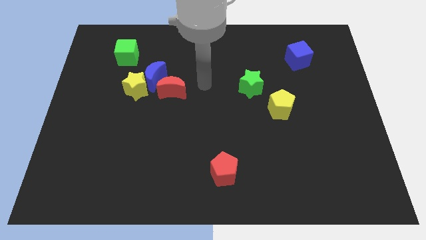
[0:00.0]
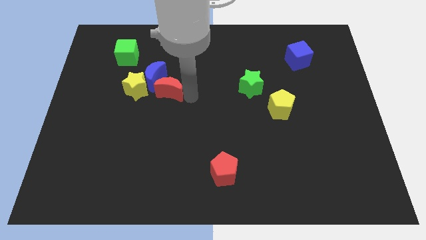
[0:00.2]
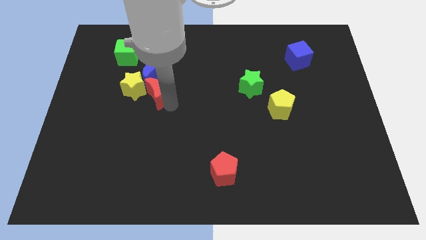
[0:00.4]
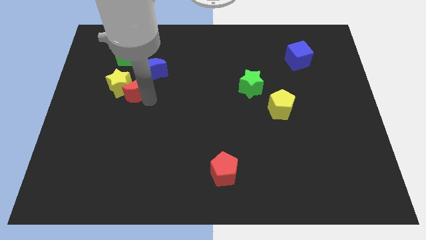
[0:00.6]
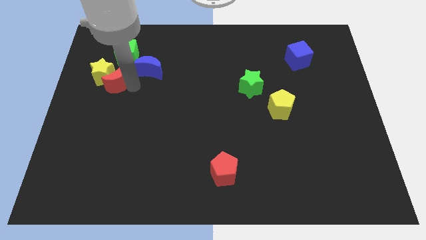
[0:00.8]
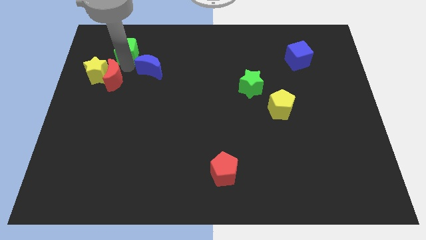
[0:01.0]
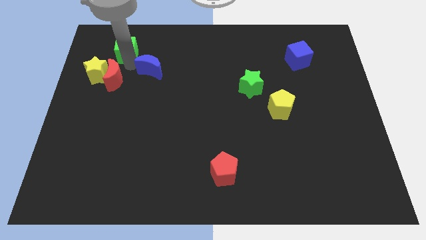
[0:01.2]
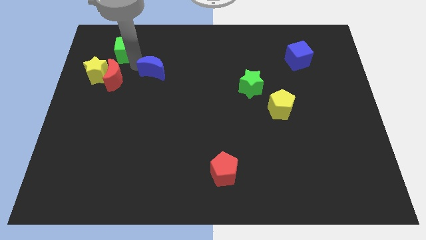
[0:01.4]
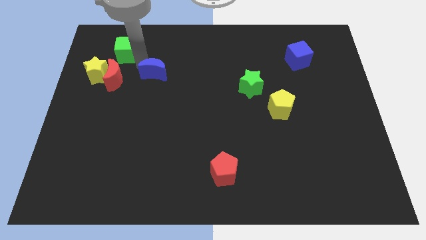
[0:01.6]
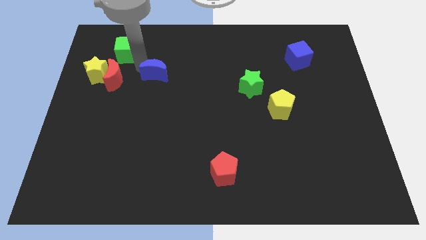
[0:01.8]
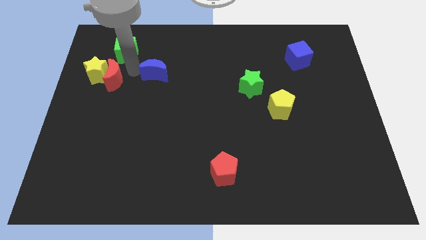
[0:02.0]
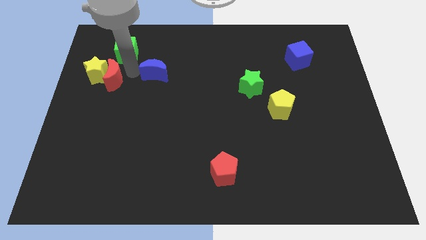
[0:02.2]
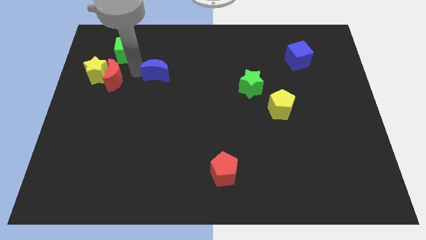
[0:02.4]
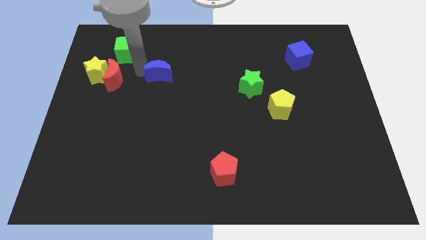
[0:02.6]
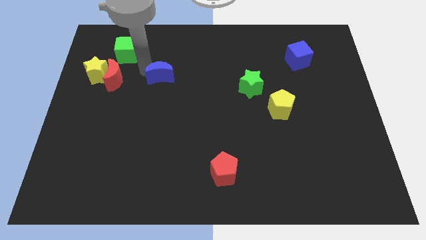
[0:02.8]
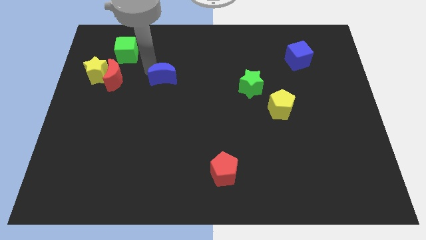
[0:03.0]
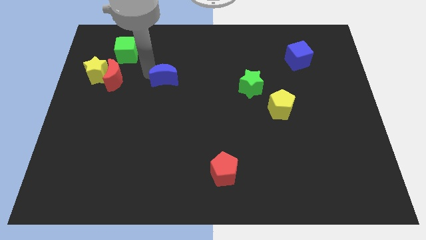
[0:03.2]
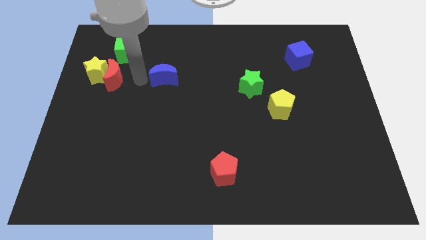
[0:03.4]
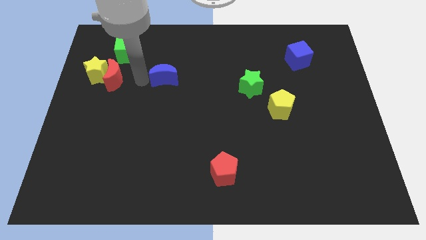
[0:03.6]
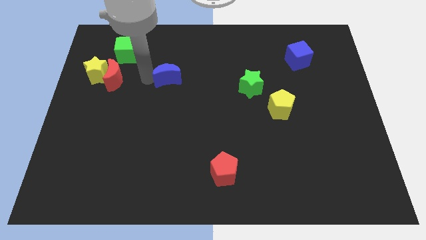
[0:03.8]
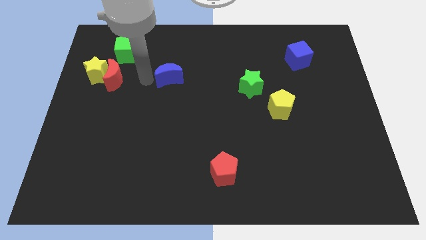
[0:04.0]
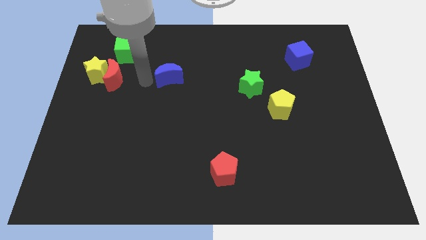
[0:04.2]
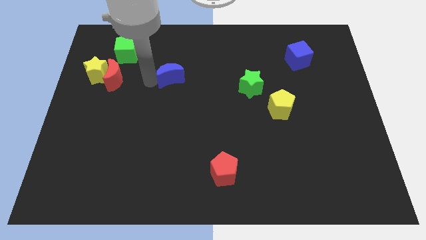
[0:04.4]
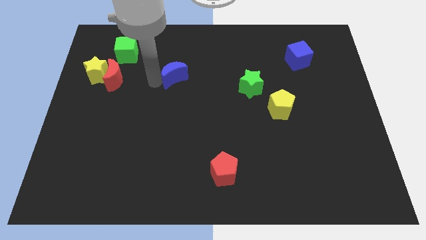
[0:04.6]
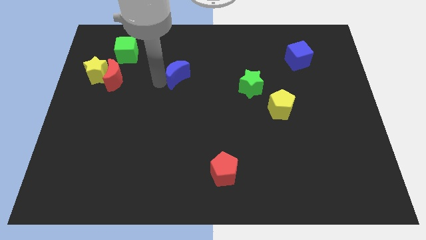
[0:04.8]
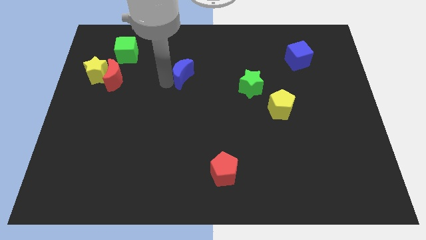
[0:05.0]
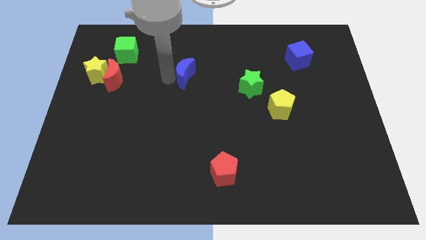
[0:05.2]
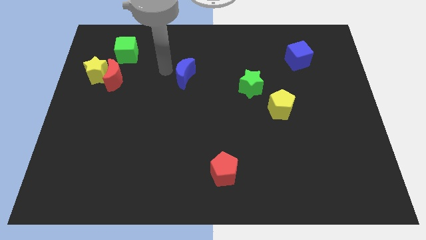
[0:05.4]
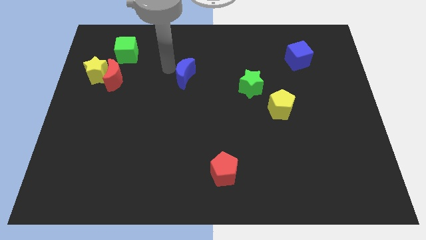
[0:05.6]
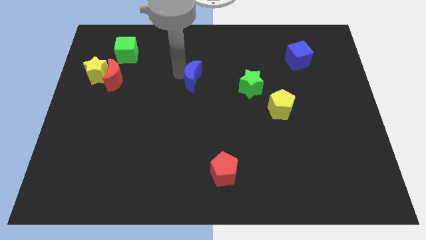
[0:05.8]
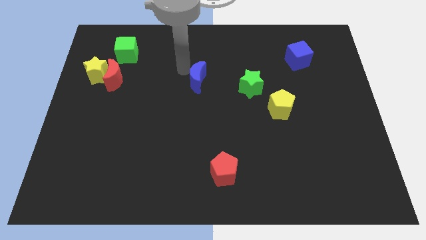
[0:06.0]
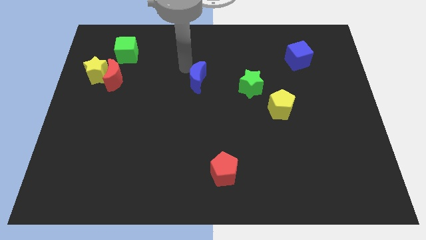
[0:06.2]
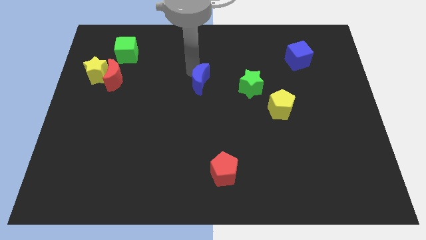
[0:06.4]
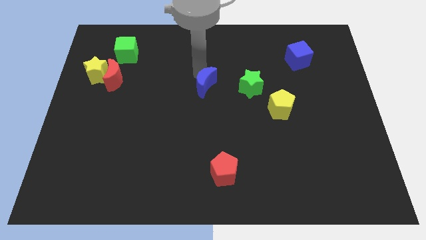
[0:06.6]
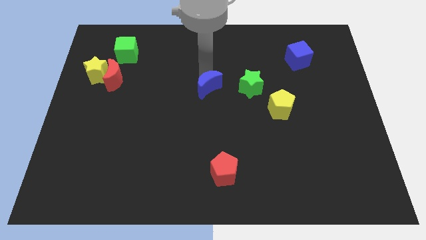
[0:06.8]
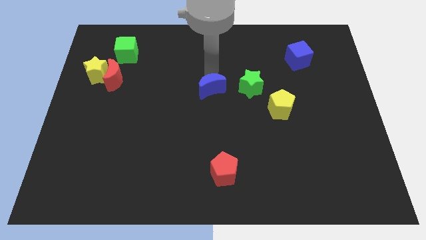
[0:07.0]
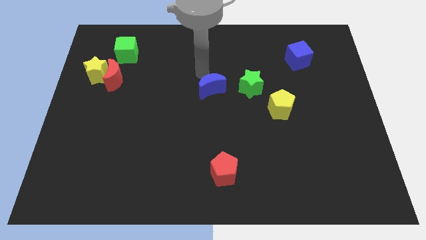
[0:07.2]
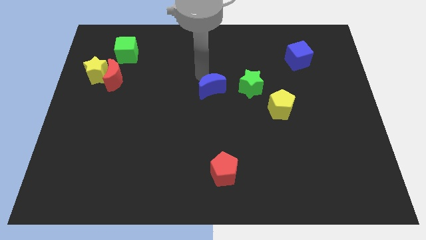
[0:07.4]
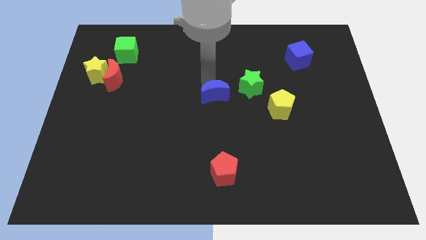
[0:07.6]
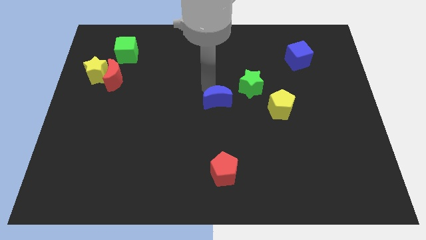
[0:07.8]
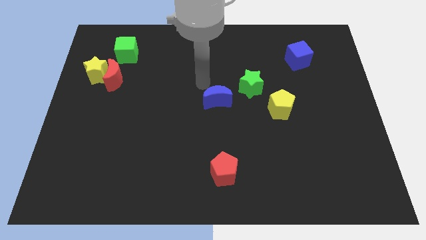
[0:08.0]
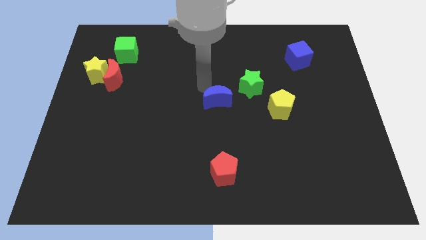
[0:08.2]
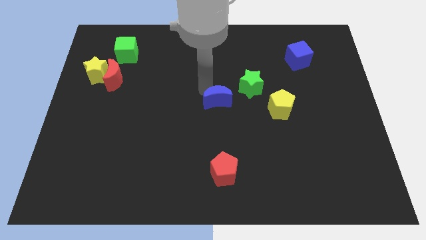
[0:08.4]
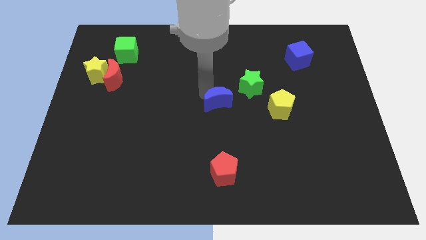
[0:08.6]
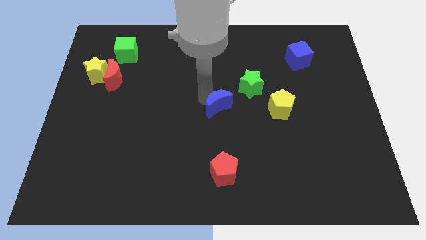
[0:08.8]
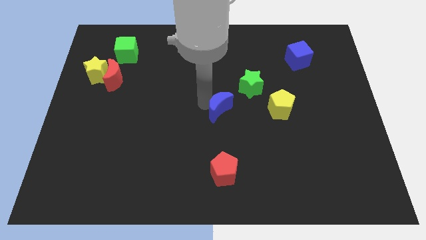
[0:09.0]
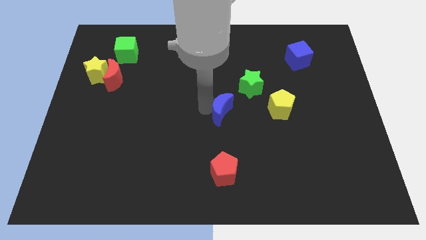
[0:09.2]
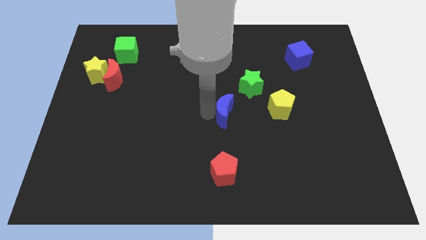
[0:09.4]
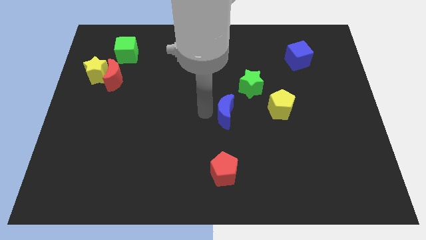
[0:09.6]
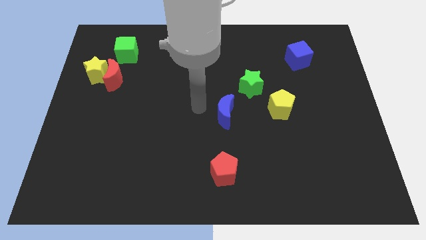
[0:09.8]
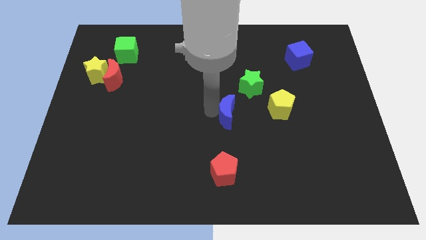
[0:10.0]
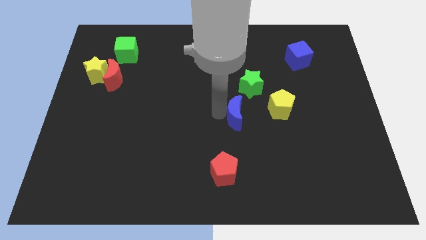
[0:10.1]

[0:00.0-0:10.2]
put the blue moon below the green star

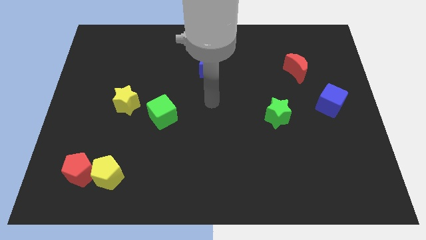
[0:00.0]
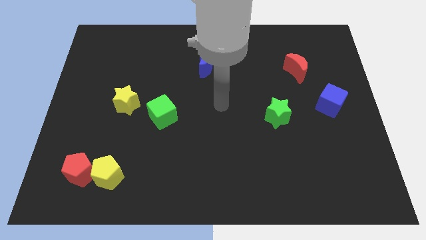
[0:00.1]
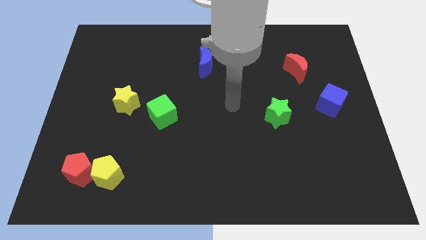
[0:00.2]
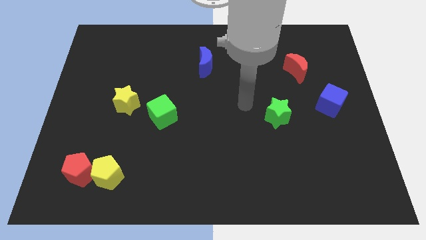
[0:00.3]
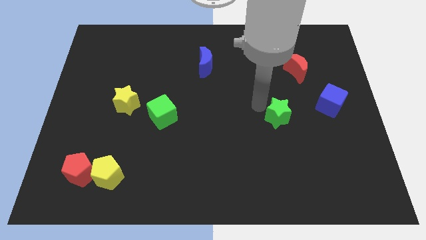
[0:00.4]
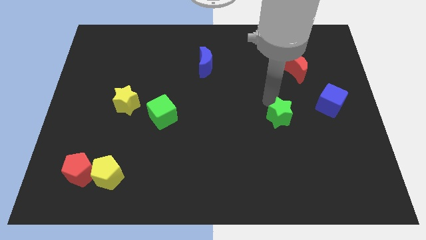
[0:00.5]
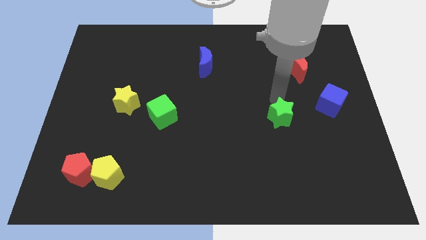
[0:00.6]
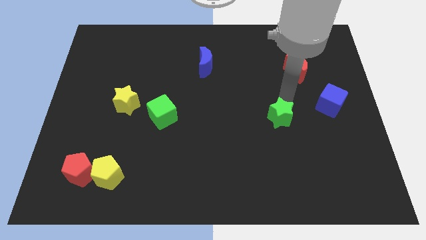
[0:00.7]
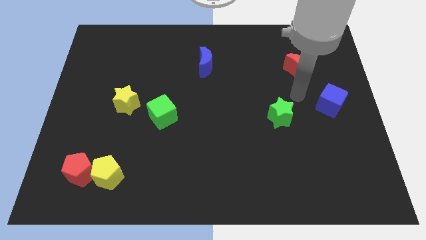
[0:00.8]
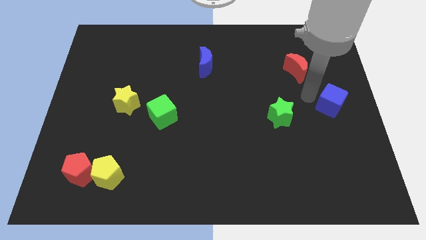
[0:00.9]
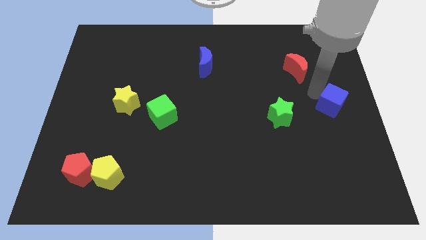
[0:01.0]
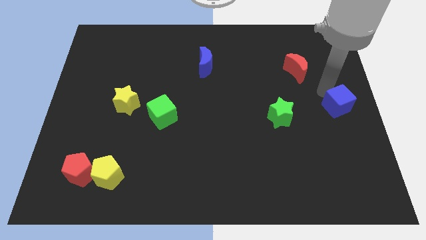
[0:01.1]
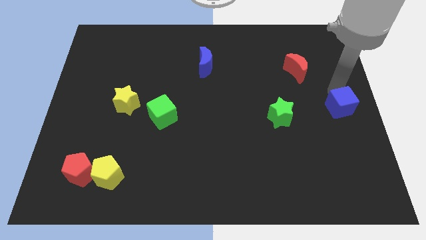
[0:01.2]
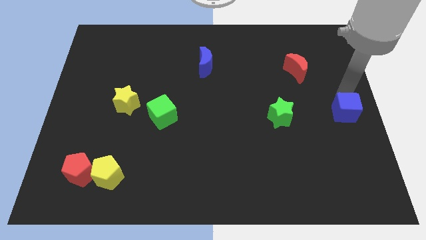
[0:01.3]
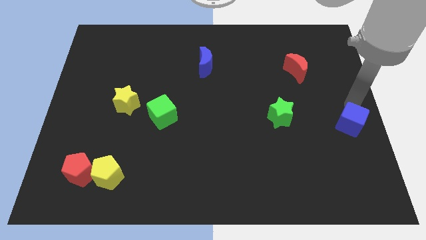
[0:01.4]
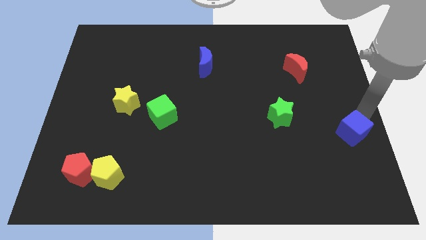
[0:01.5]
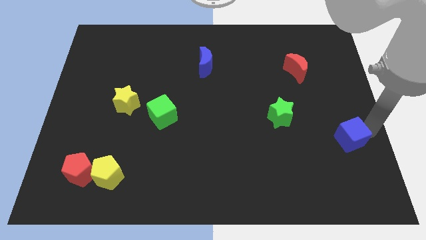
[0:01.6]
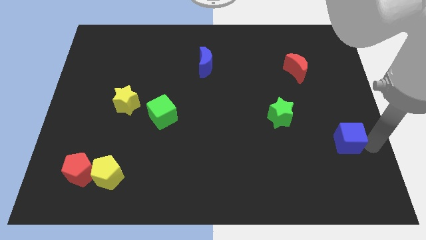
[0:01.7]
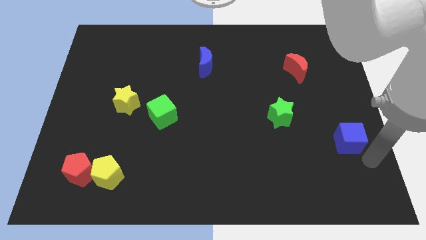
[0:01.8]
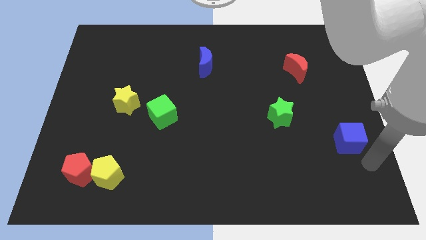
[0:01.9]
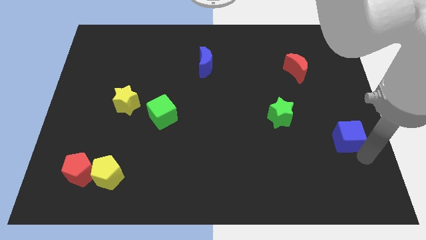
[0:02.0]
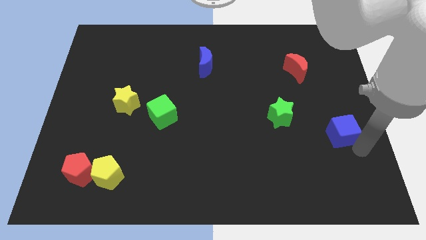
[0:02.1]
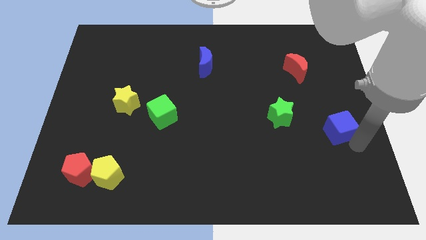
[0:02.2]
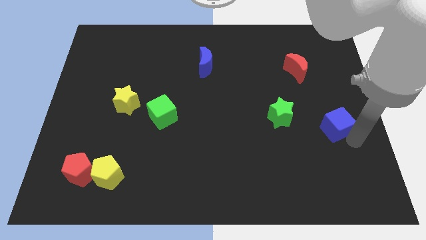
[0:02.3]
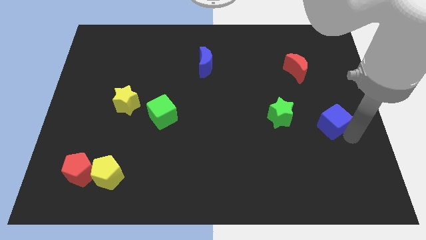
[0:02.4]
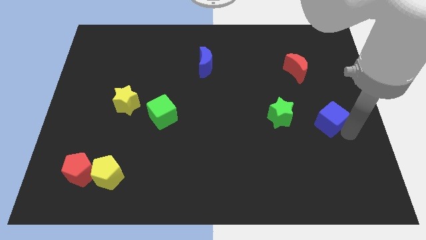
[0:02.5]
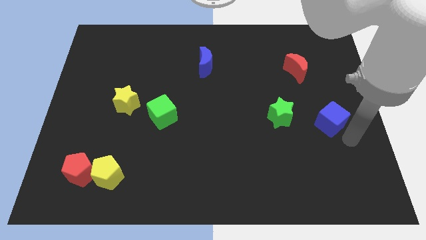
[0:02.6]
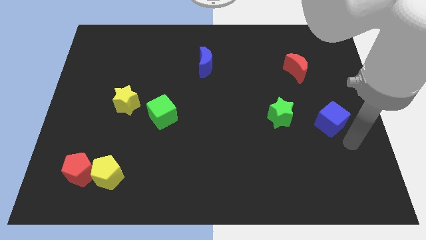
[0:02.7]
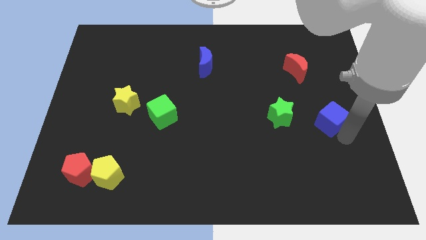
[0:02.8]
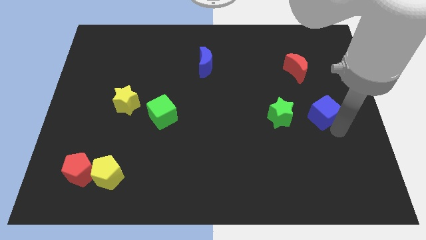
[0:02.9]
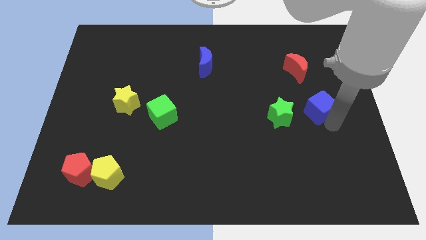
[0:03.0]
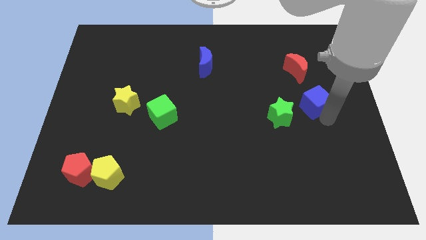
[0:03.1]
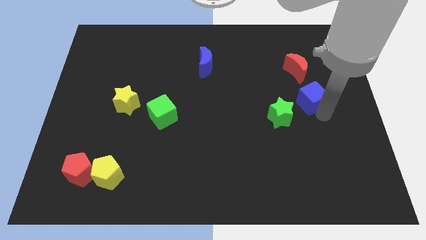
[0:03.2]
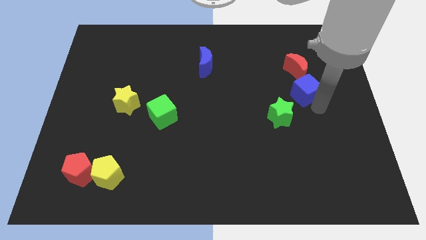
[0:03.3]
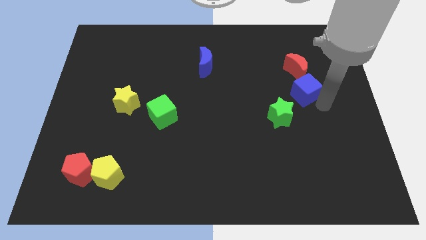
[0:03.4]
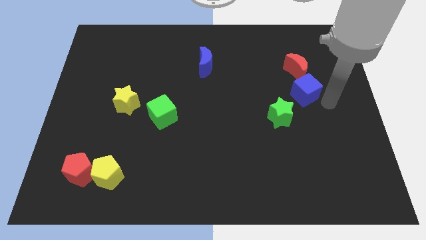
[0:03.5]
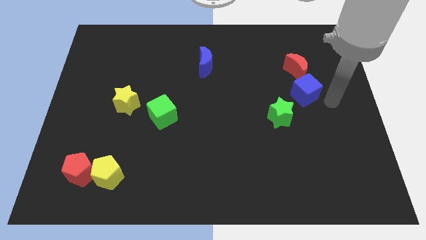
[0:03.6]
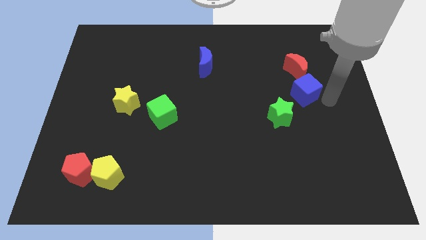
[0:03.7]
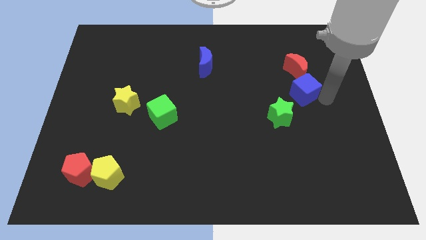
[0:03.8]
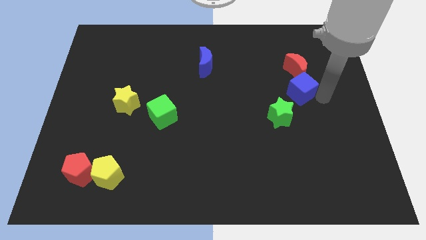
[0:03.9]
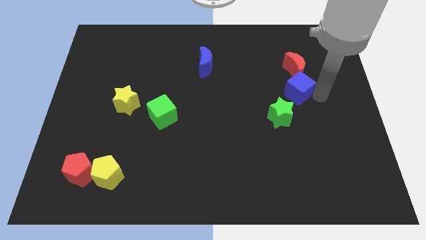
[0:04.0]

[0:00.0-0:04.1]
push the blue cube to the bottom left side of the red moon
